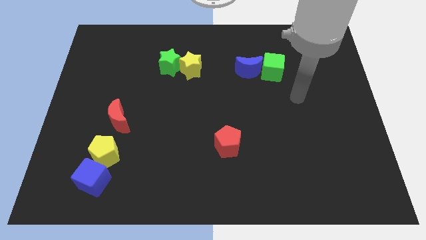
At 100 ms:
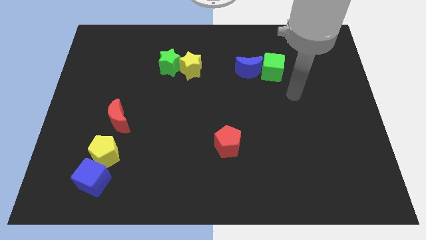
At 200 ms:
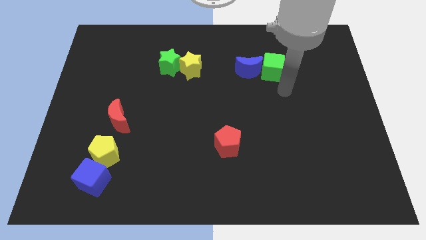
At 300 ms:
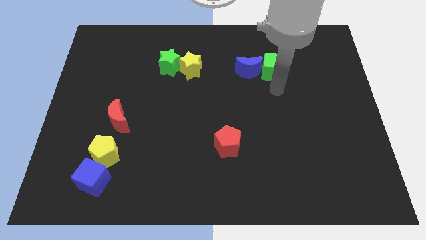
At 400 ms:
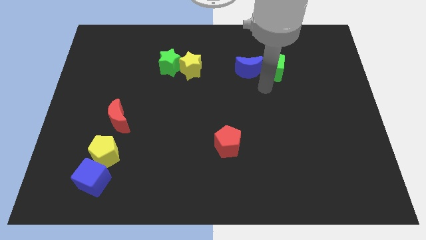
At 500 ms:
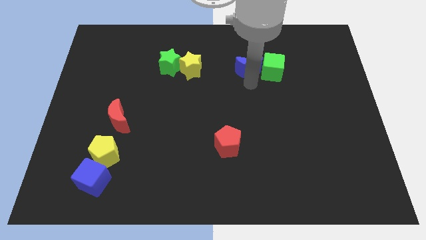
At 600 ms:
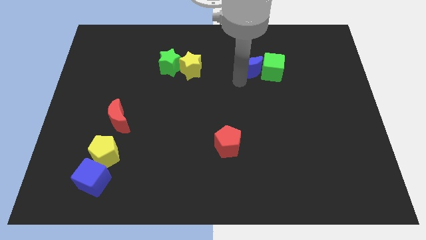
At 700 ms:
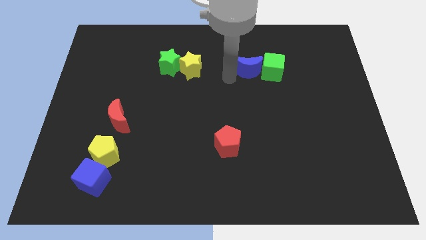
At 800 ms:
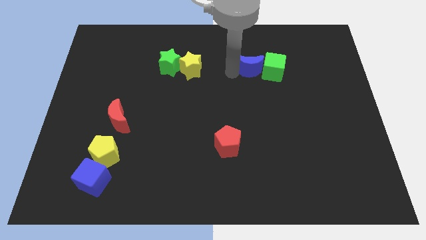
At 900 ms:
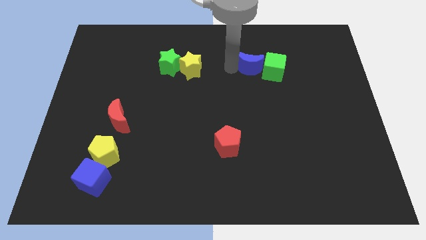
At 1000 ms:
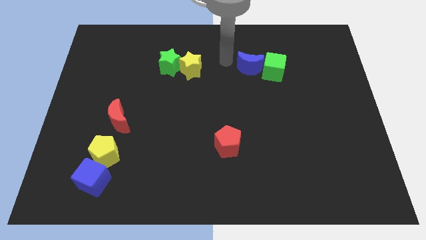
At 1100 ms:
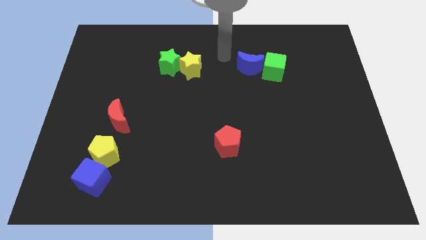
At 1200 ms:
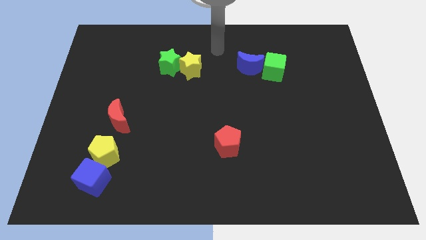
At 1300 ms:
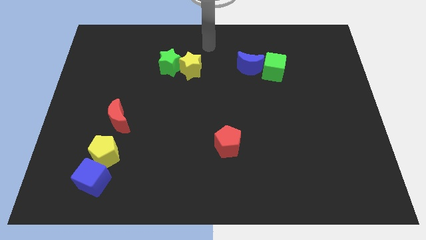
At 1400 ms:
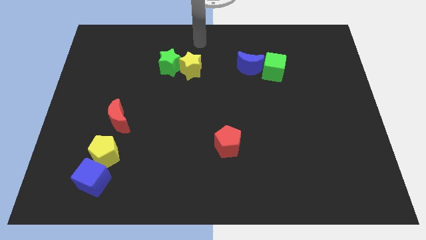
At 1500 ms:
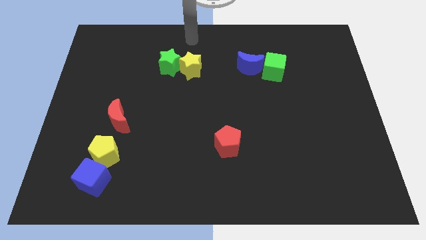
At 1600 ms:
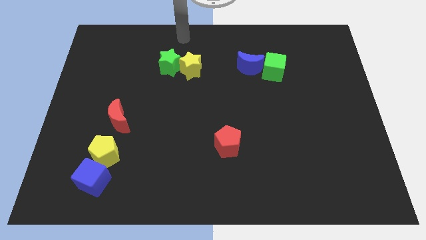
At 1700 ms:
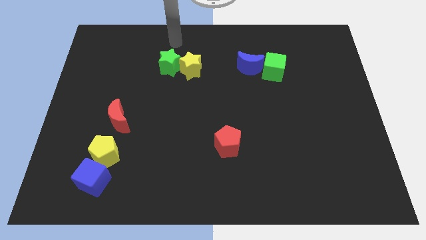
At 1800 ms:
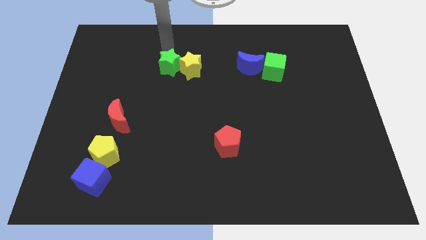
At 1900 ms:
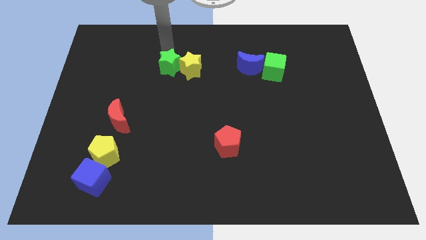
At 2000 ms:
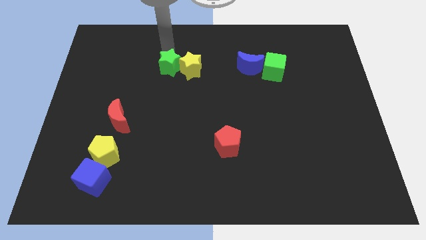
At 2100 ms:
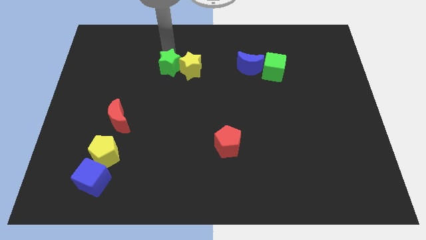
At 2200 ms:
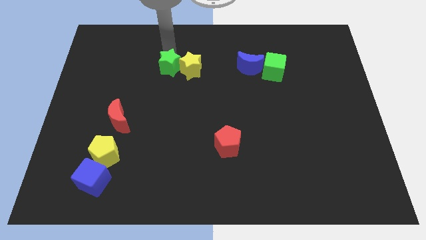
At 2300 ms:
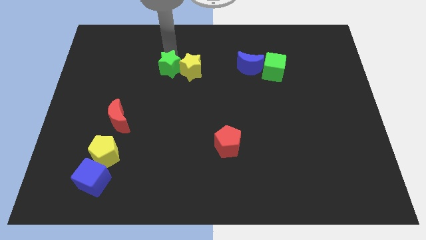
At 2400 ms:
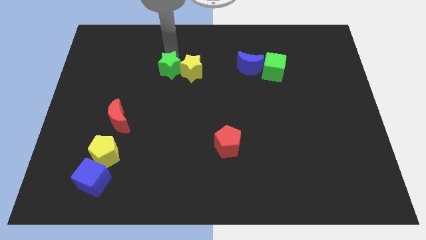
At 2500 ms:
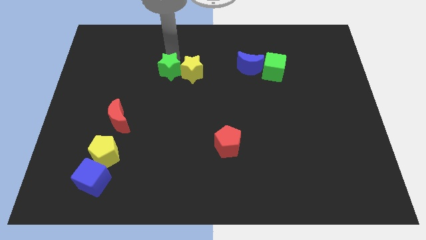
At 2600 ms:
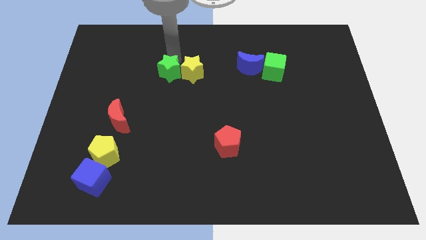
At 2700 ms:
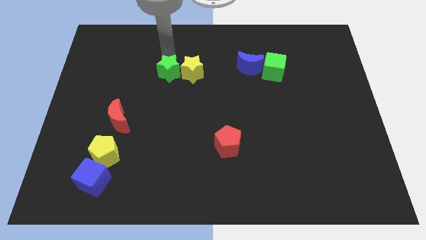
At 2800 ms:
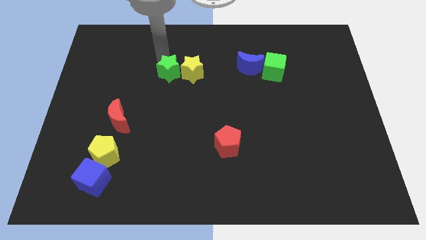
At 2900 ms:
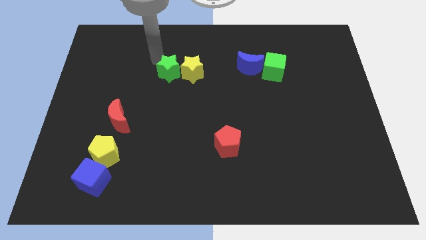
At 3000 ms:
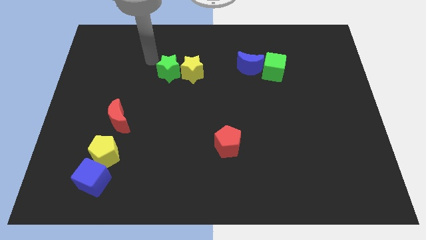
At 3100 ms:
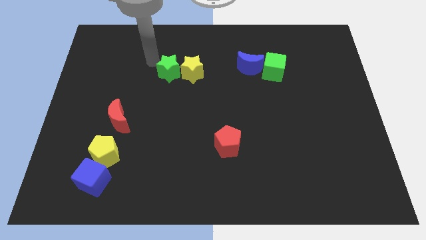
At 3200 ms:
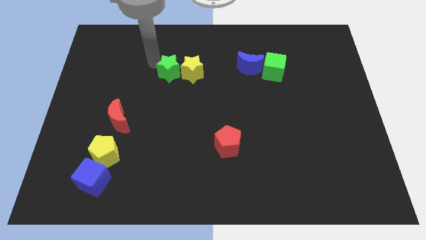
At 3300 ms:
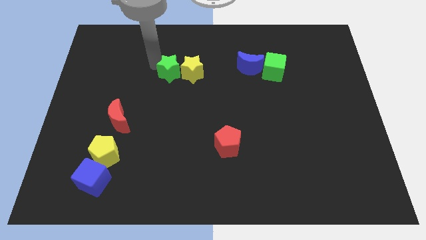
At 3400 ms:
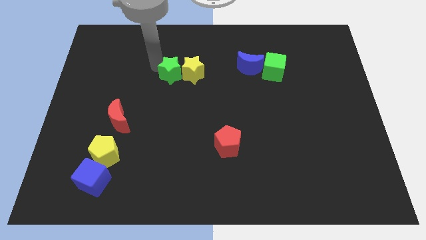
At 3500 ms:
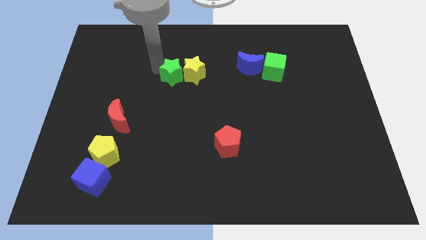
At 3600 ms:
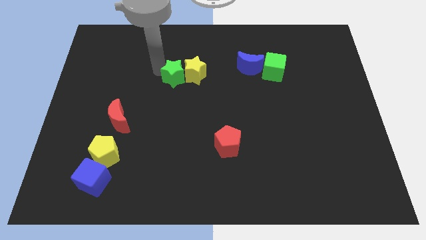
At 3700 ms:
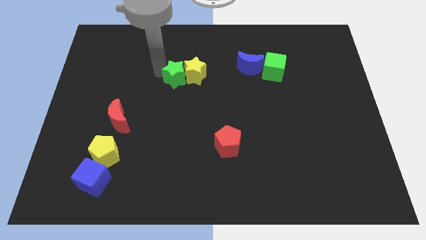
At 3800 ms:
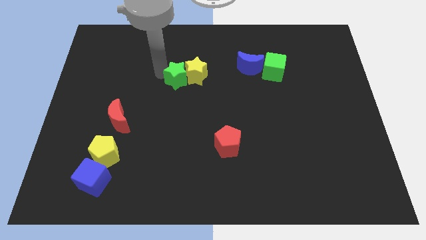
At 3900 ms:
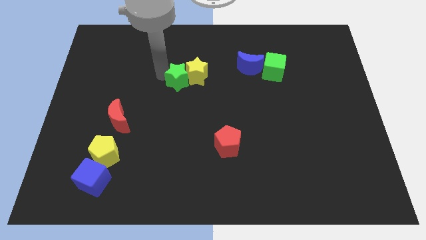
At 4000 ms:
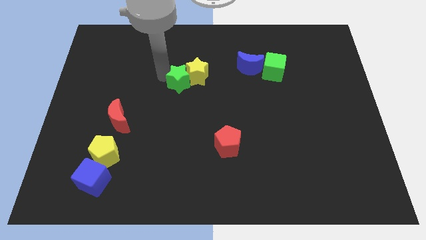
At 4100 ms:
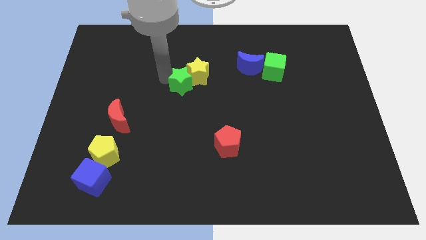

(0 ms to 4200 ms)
slightly slide the green star down and to the right

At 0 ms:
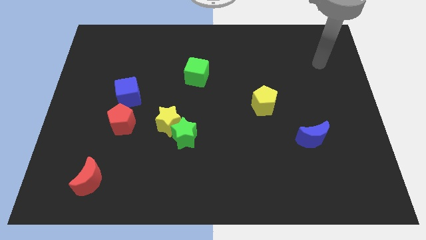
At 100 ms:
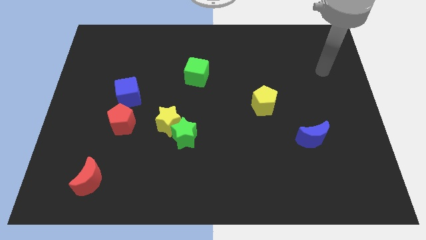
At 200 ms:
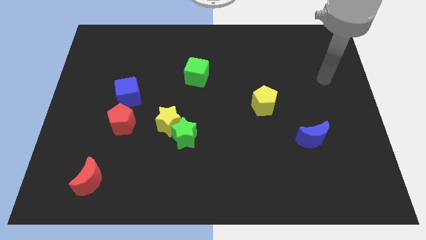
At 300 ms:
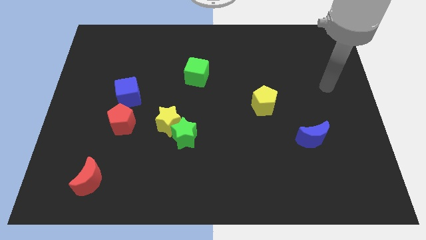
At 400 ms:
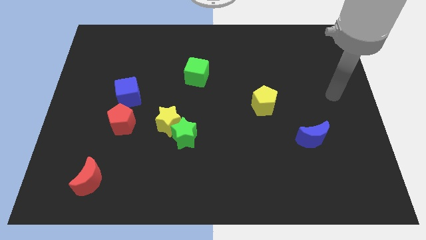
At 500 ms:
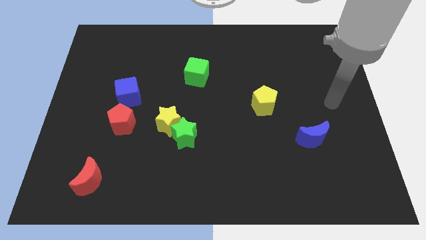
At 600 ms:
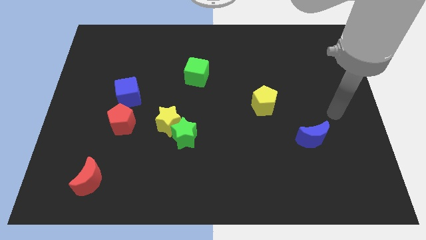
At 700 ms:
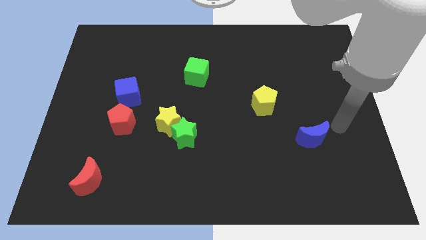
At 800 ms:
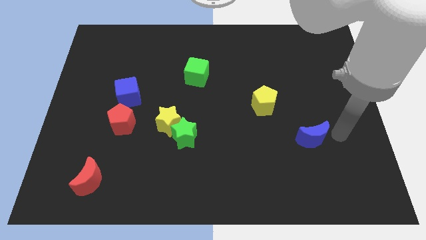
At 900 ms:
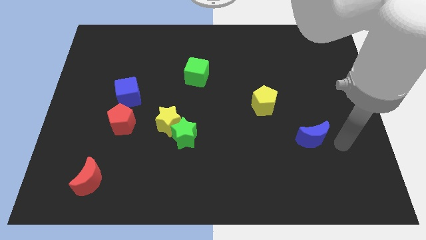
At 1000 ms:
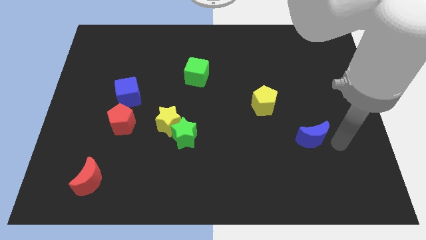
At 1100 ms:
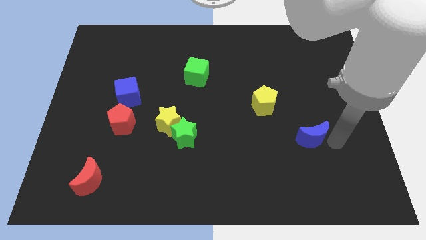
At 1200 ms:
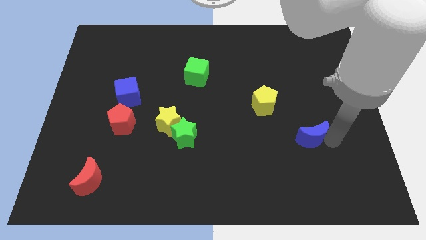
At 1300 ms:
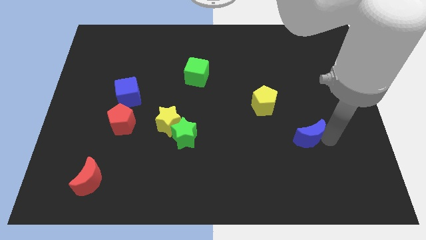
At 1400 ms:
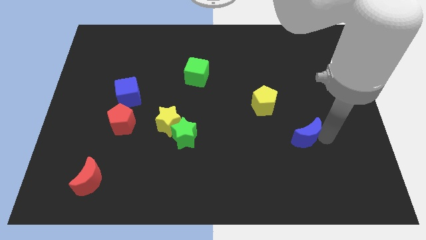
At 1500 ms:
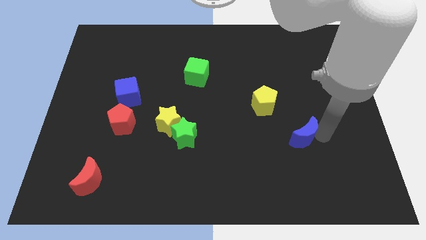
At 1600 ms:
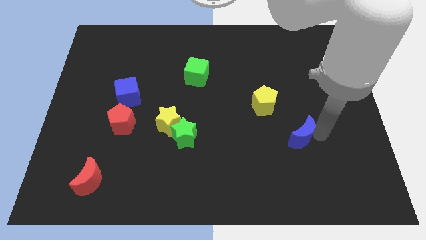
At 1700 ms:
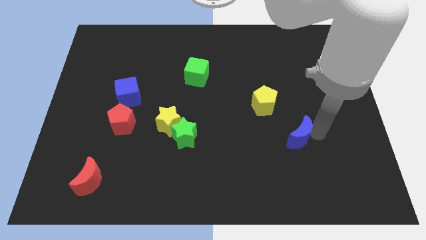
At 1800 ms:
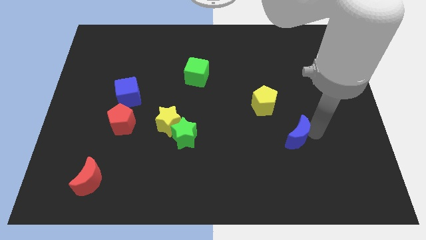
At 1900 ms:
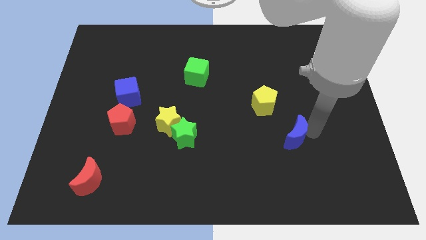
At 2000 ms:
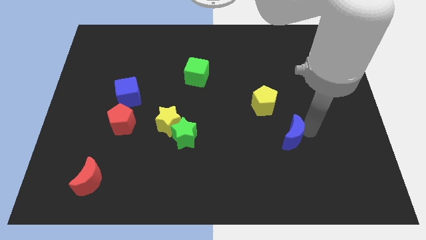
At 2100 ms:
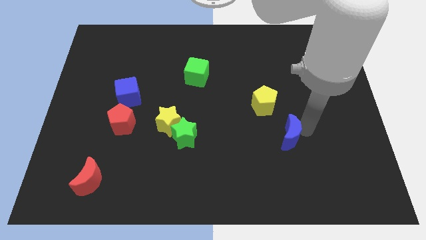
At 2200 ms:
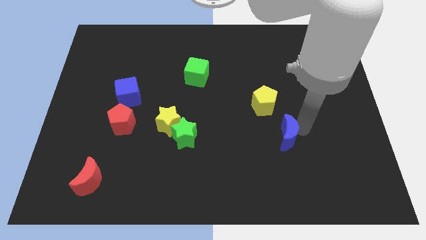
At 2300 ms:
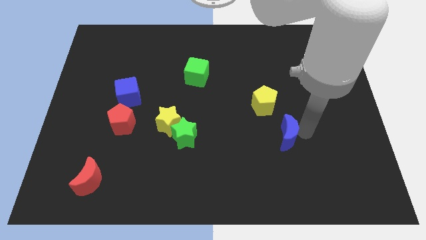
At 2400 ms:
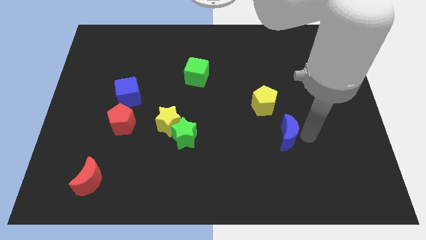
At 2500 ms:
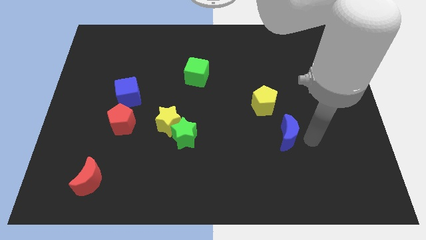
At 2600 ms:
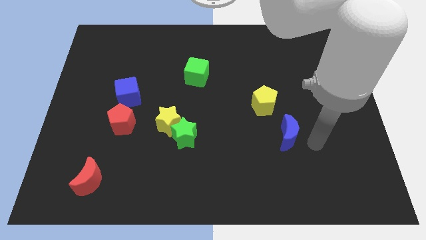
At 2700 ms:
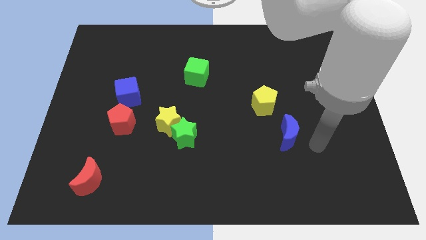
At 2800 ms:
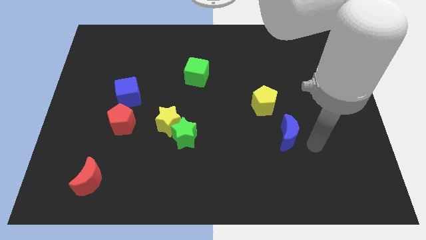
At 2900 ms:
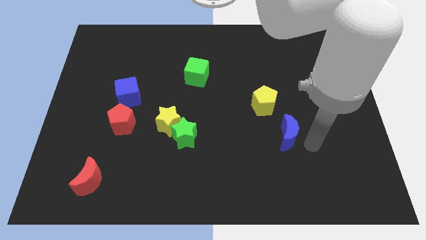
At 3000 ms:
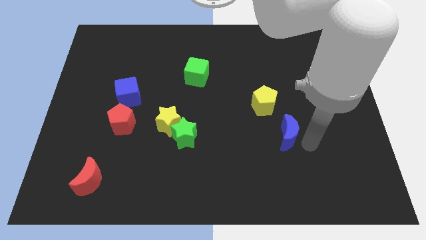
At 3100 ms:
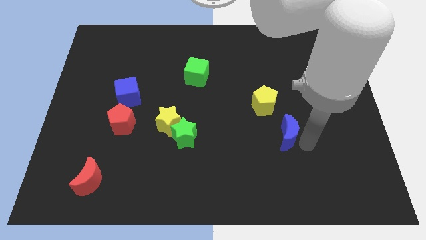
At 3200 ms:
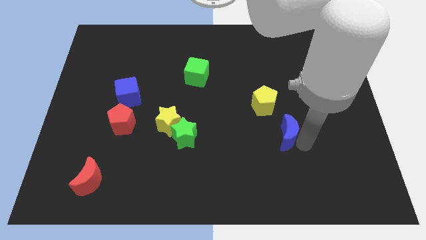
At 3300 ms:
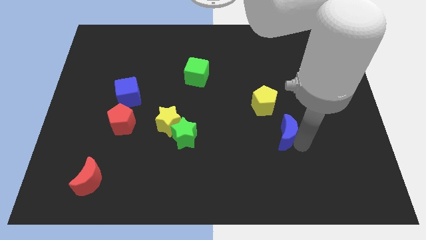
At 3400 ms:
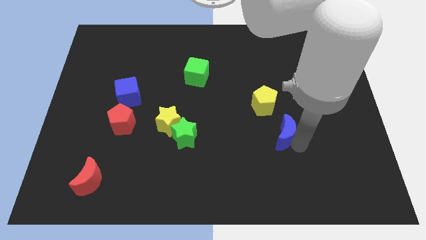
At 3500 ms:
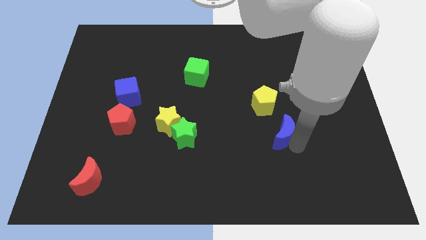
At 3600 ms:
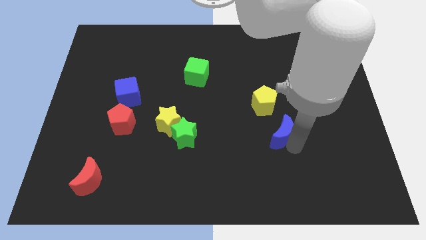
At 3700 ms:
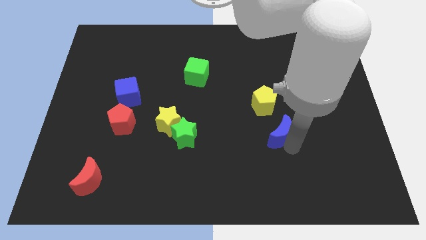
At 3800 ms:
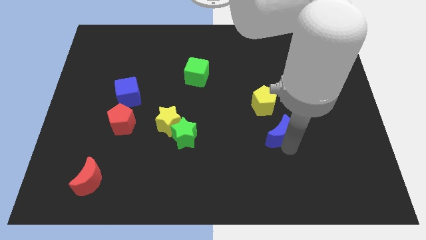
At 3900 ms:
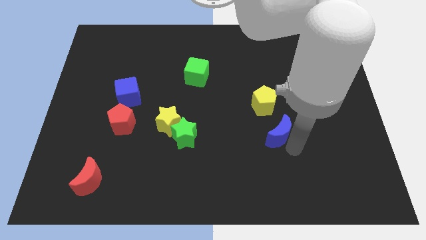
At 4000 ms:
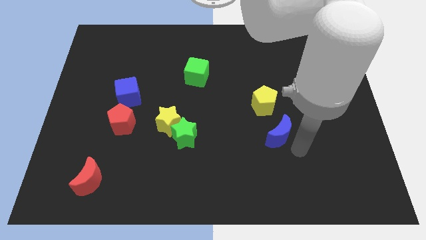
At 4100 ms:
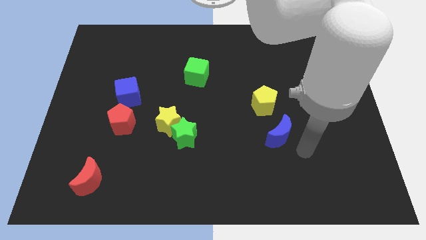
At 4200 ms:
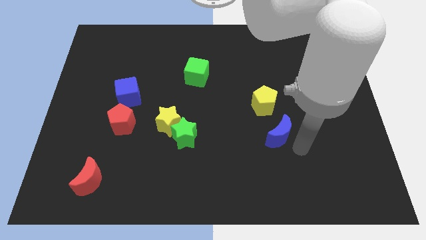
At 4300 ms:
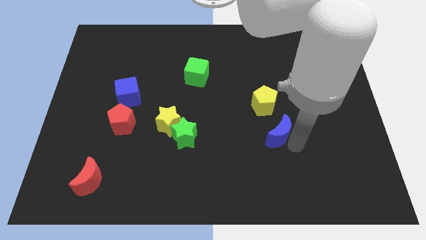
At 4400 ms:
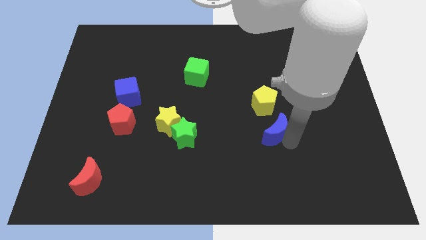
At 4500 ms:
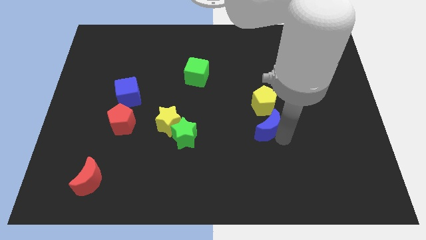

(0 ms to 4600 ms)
move the blue moon up and to the left a bit
